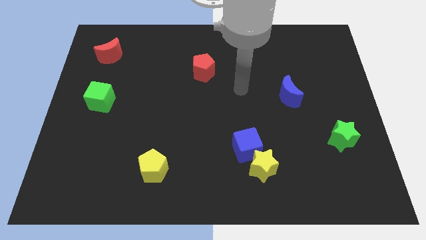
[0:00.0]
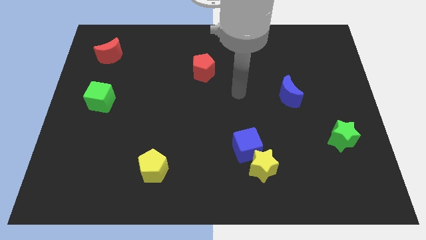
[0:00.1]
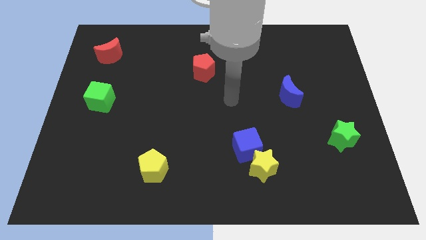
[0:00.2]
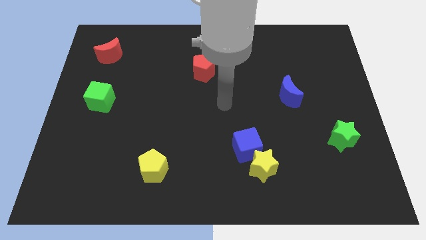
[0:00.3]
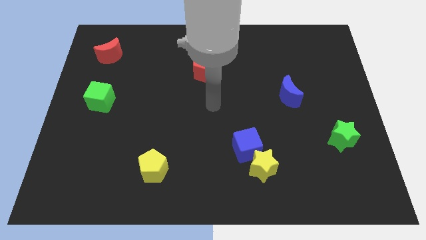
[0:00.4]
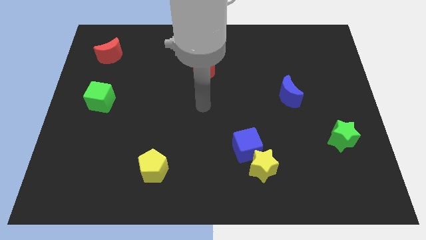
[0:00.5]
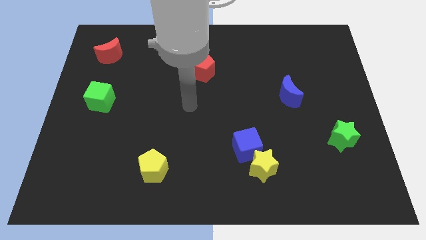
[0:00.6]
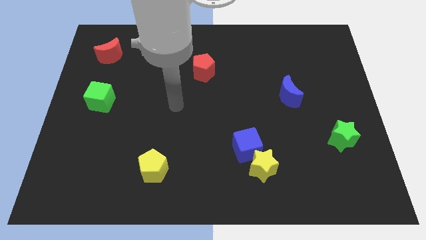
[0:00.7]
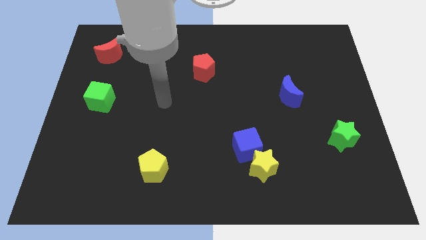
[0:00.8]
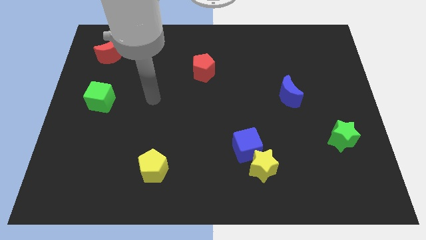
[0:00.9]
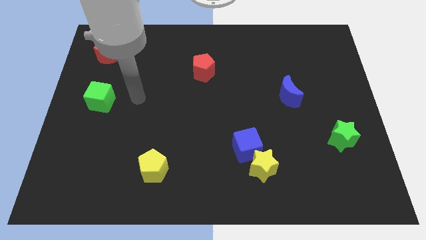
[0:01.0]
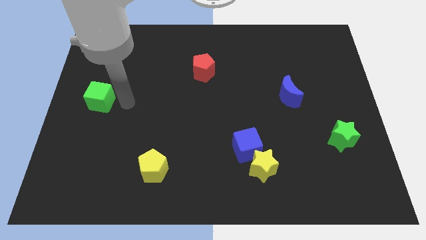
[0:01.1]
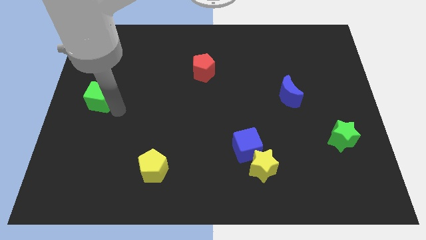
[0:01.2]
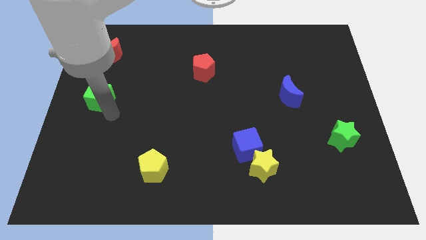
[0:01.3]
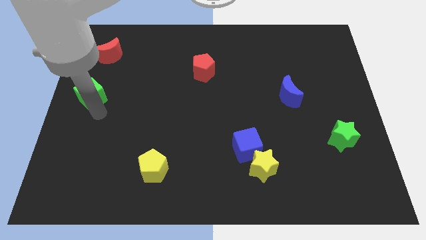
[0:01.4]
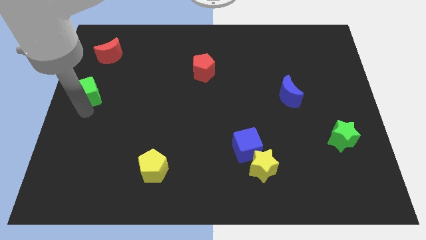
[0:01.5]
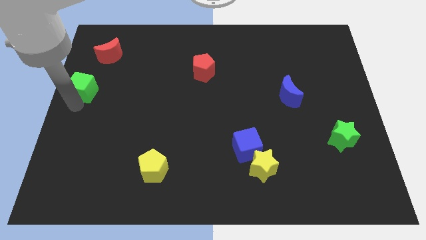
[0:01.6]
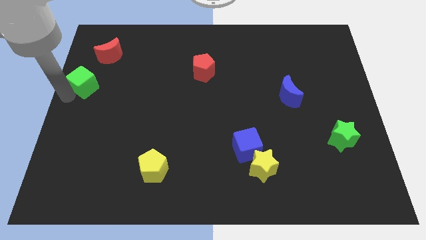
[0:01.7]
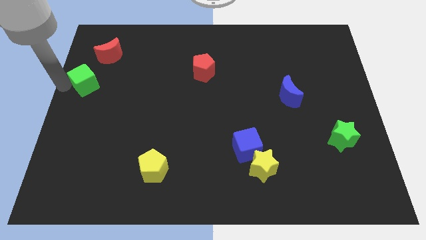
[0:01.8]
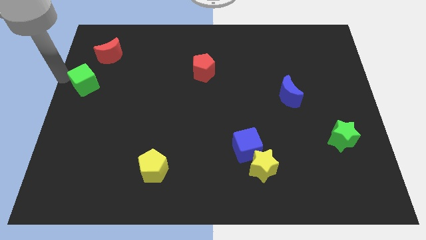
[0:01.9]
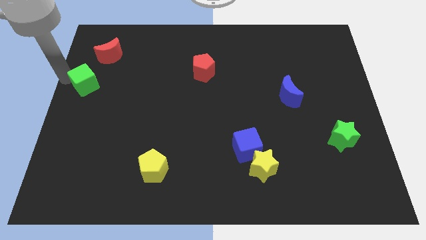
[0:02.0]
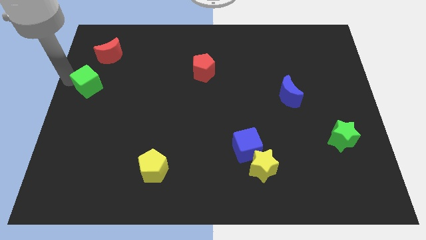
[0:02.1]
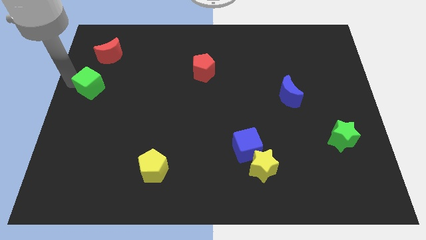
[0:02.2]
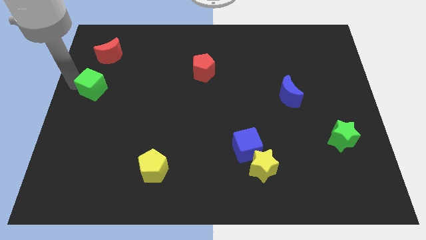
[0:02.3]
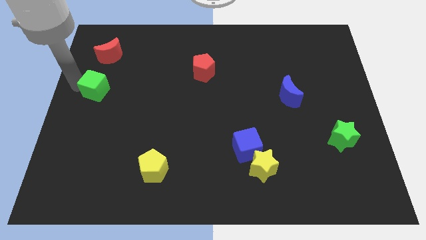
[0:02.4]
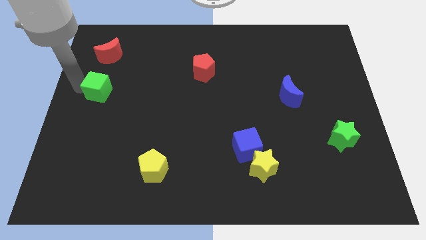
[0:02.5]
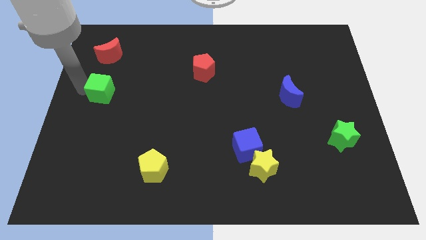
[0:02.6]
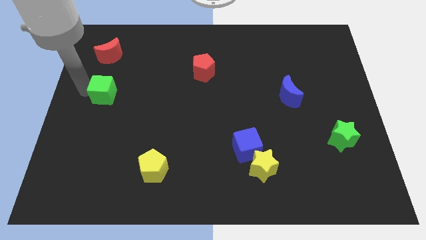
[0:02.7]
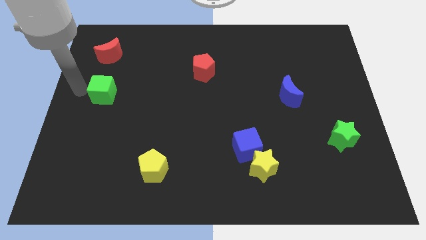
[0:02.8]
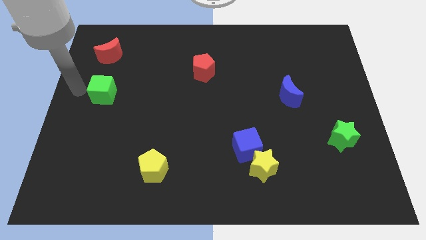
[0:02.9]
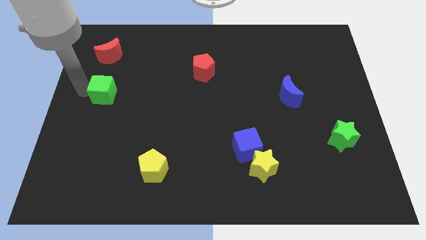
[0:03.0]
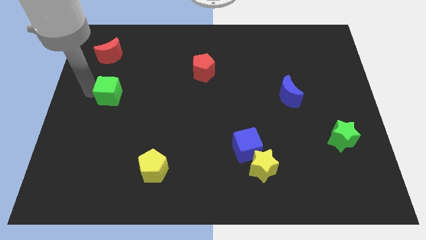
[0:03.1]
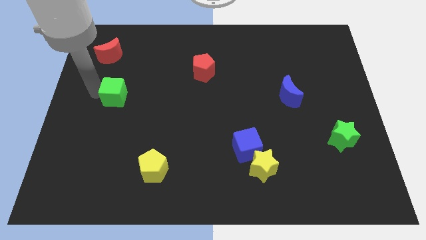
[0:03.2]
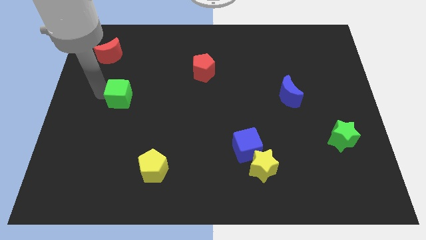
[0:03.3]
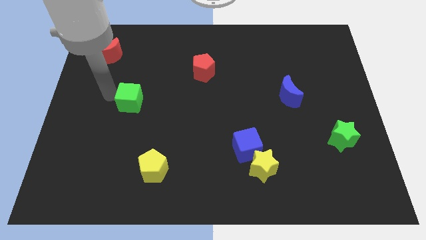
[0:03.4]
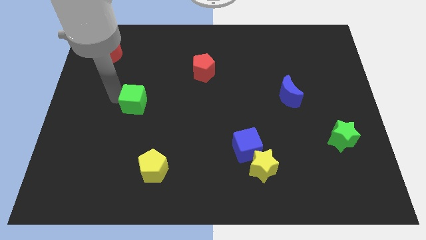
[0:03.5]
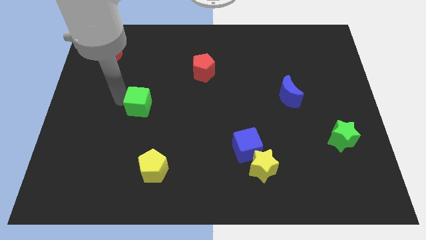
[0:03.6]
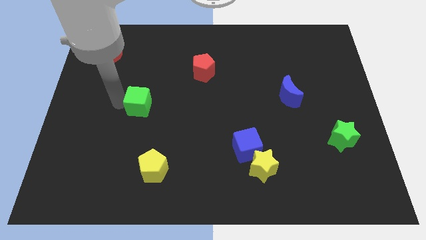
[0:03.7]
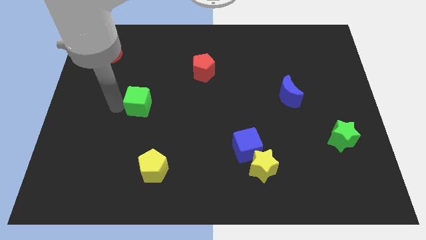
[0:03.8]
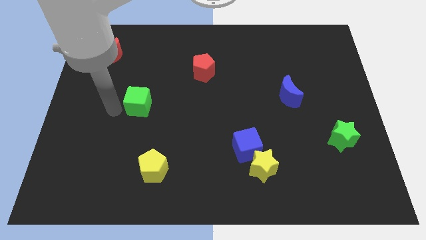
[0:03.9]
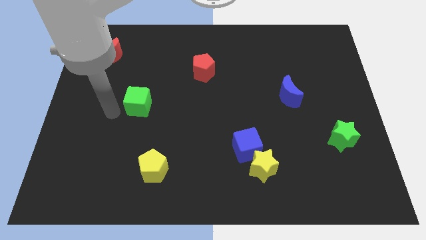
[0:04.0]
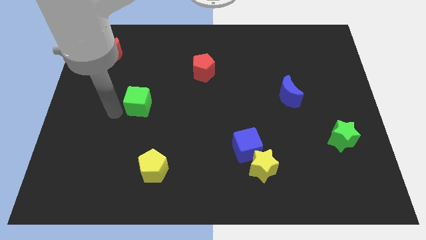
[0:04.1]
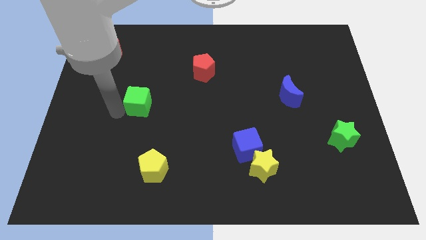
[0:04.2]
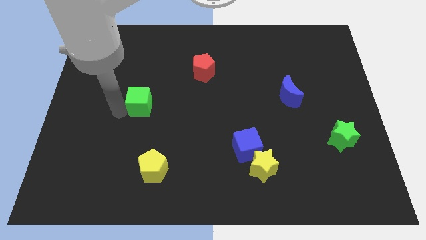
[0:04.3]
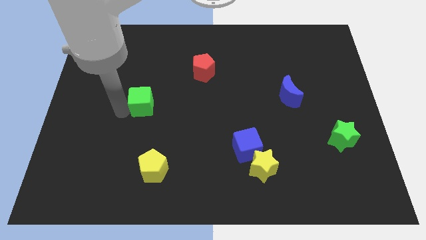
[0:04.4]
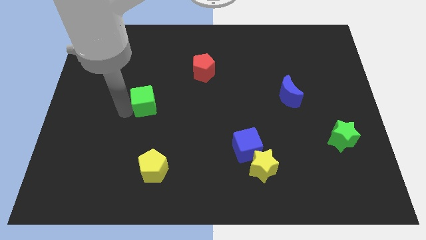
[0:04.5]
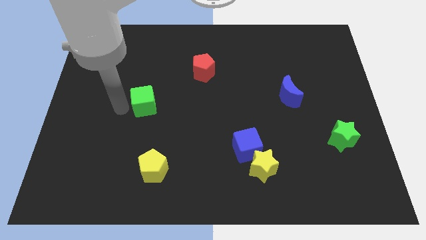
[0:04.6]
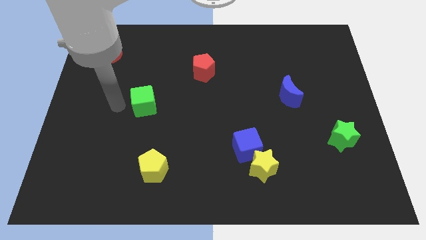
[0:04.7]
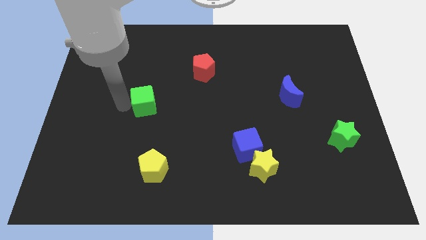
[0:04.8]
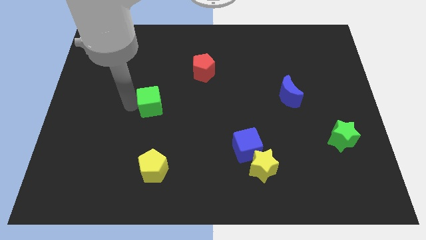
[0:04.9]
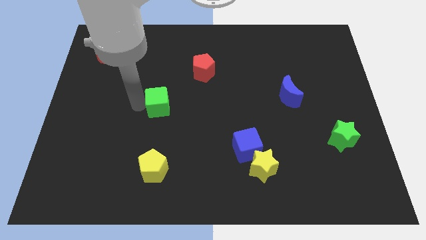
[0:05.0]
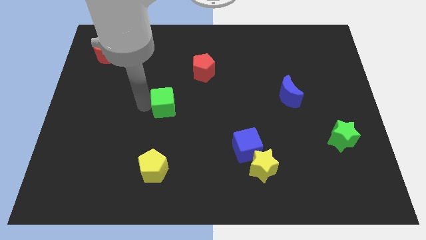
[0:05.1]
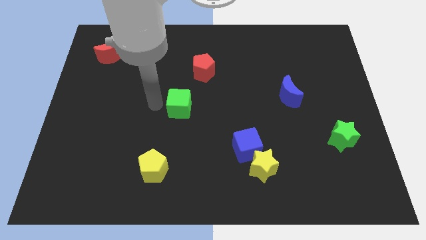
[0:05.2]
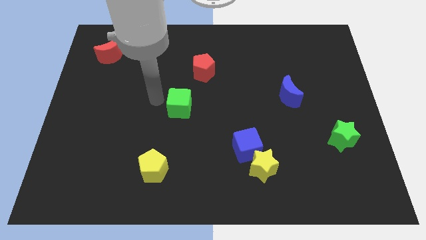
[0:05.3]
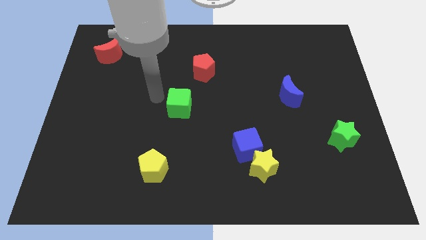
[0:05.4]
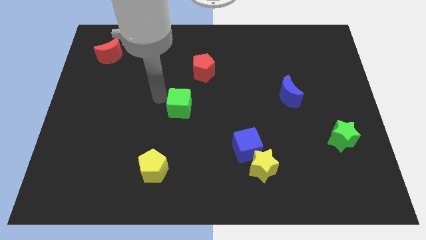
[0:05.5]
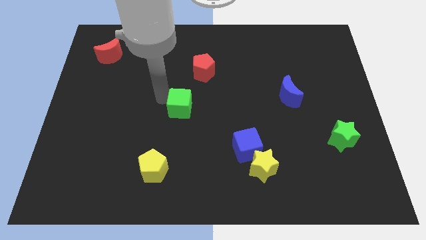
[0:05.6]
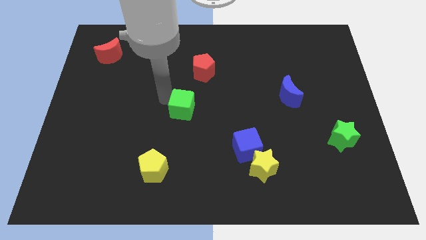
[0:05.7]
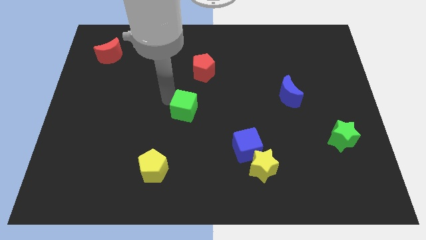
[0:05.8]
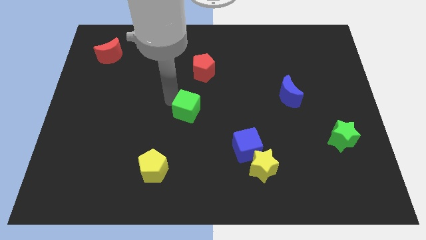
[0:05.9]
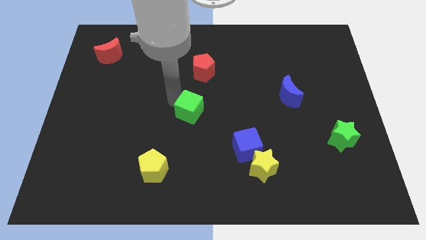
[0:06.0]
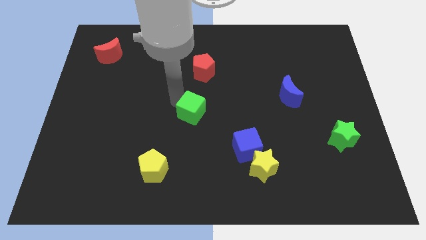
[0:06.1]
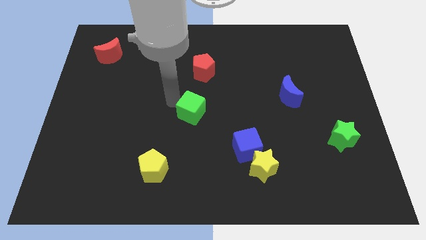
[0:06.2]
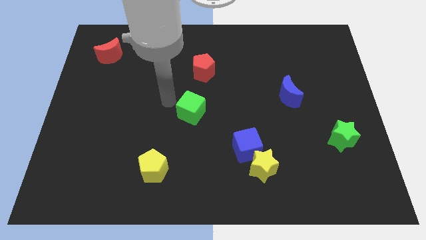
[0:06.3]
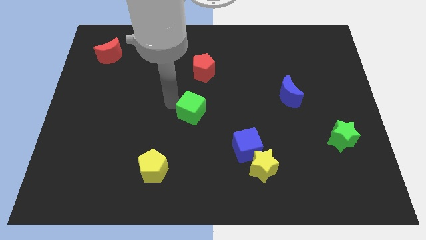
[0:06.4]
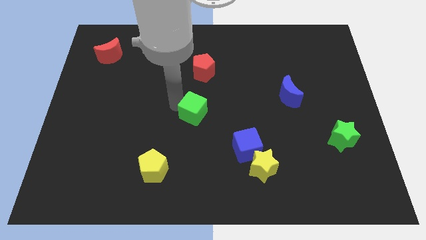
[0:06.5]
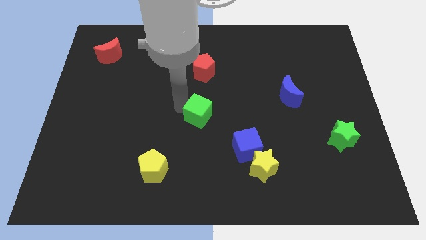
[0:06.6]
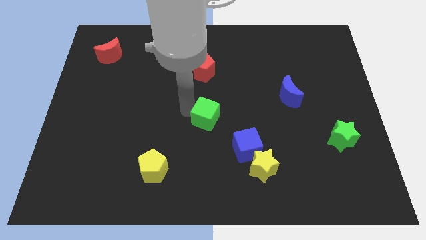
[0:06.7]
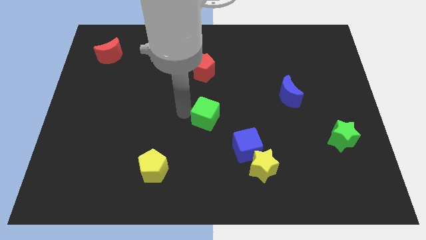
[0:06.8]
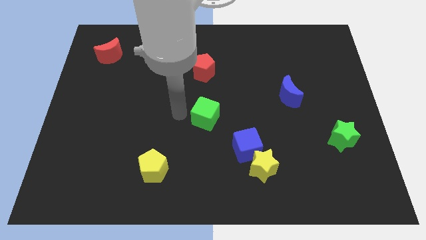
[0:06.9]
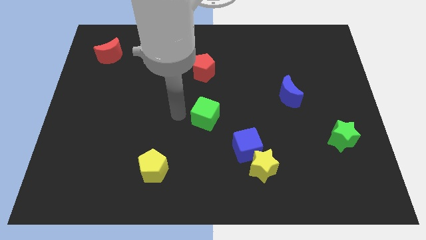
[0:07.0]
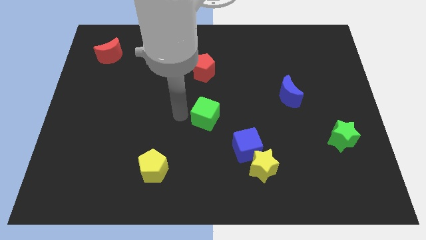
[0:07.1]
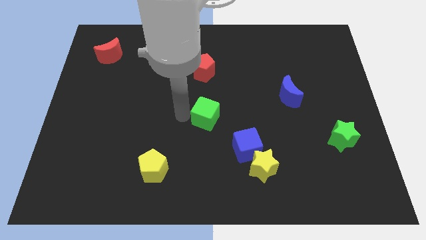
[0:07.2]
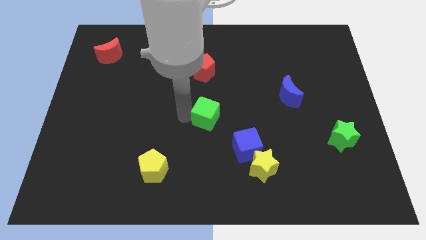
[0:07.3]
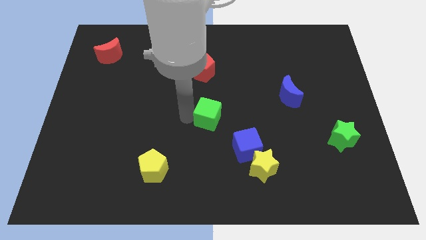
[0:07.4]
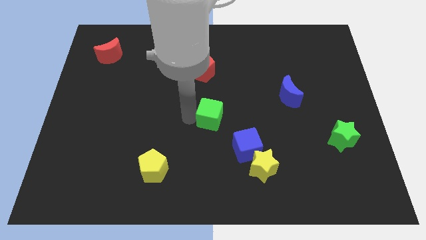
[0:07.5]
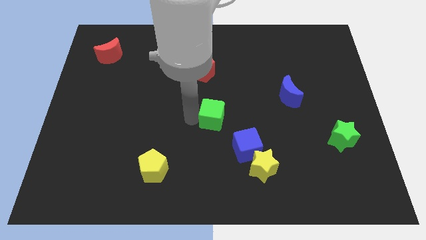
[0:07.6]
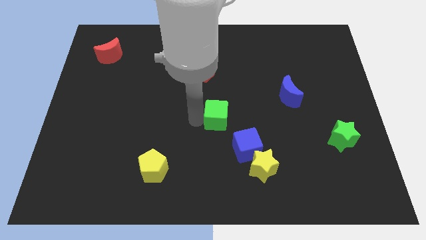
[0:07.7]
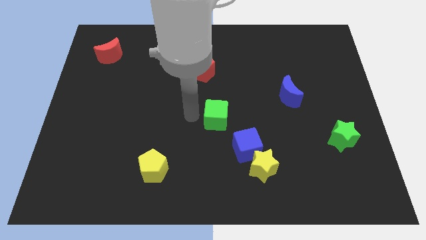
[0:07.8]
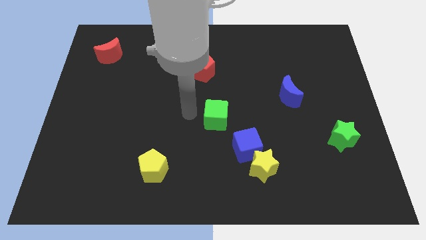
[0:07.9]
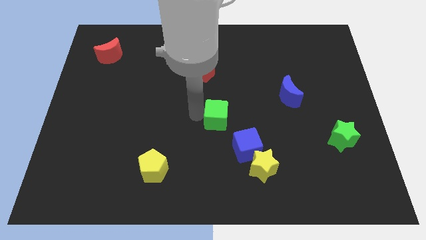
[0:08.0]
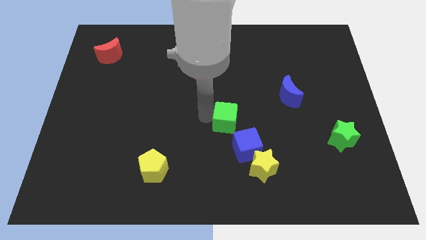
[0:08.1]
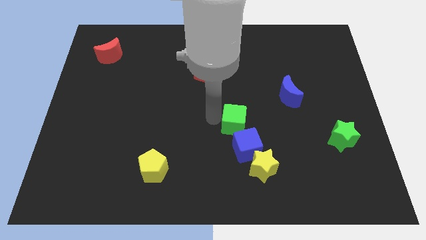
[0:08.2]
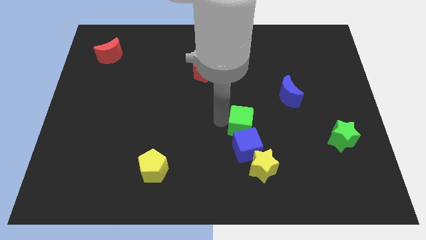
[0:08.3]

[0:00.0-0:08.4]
put the green cube to the top of the yellow star
